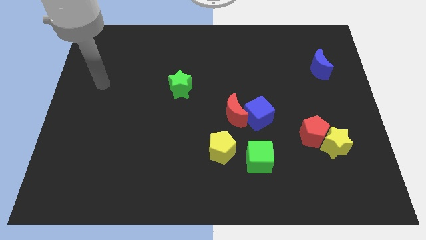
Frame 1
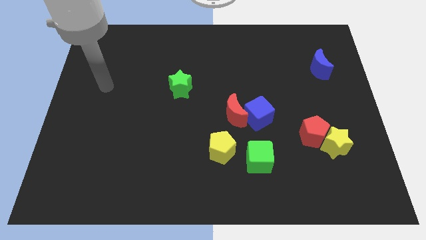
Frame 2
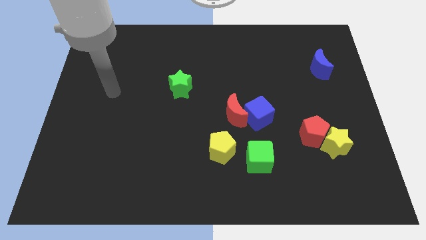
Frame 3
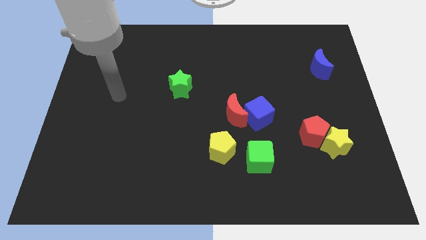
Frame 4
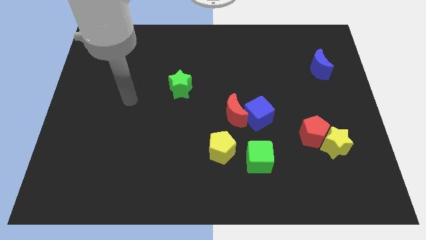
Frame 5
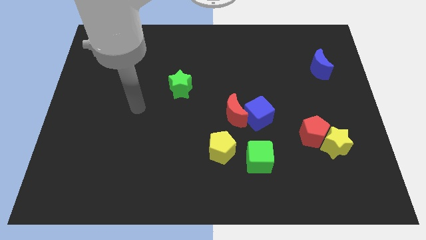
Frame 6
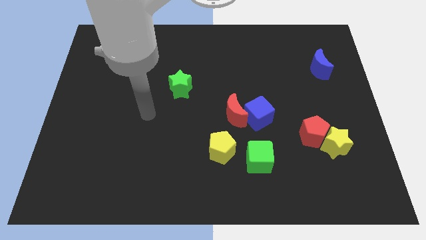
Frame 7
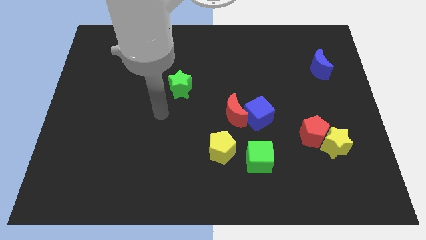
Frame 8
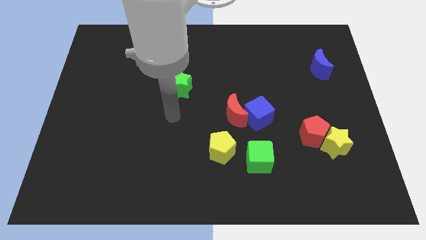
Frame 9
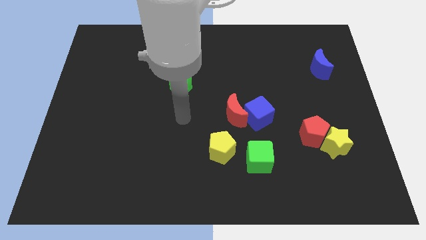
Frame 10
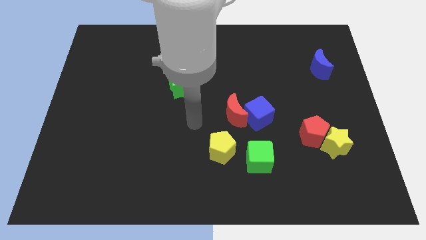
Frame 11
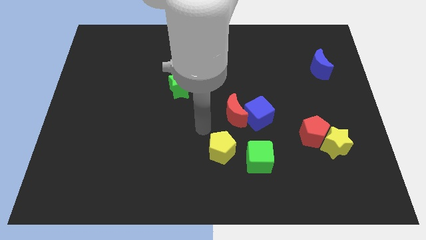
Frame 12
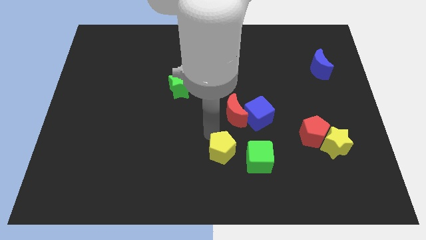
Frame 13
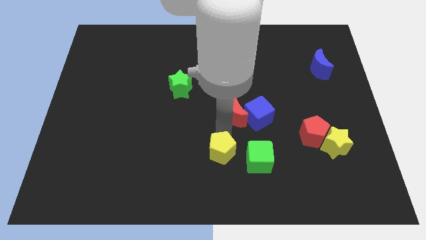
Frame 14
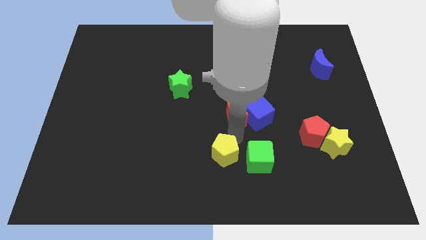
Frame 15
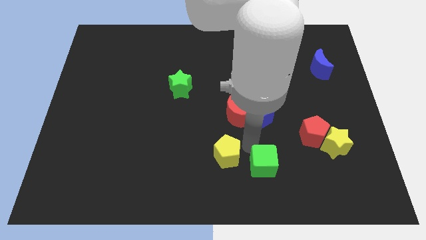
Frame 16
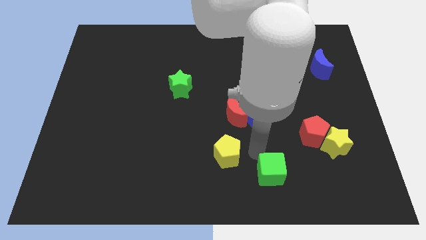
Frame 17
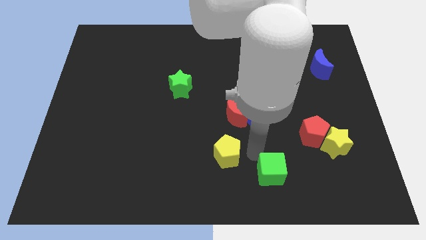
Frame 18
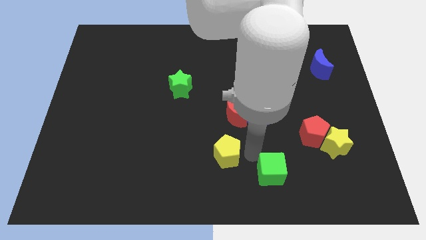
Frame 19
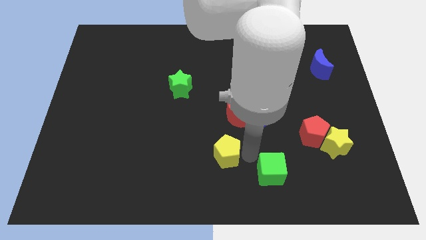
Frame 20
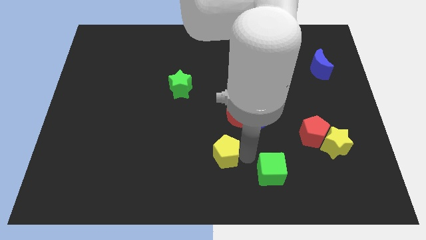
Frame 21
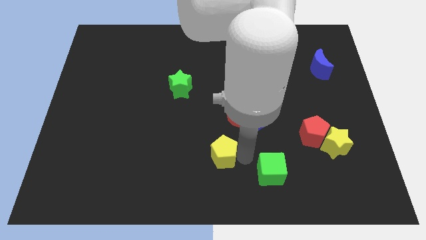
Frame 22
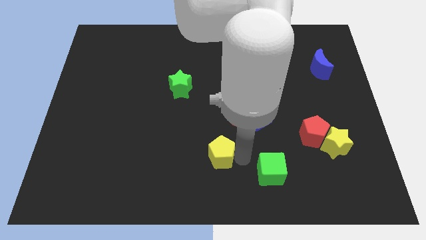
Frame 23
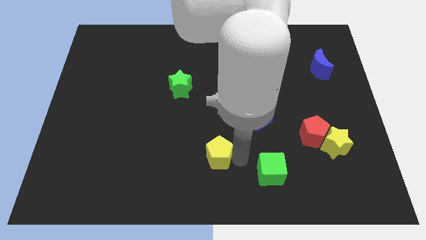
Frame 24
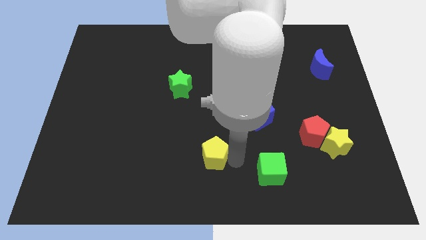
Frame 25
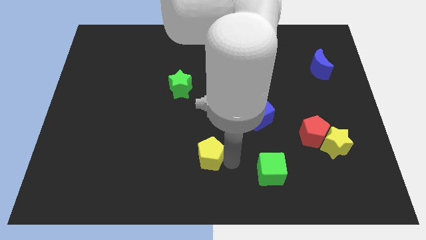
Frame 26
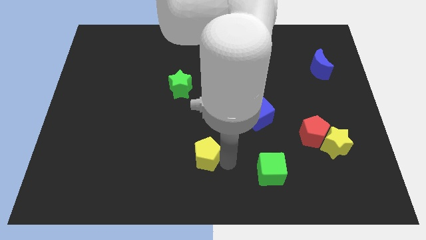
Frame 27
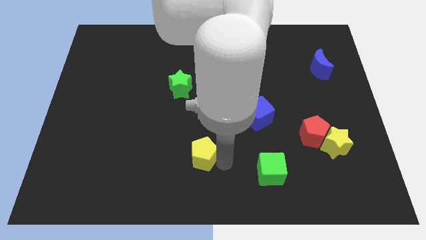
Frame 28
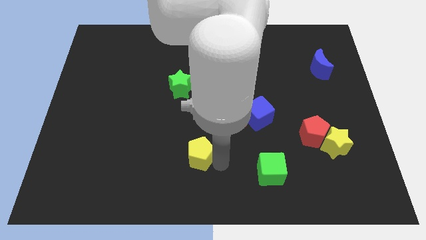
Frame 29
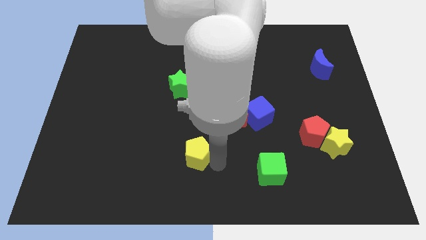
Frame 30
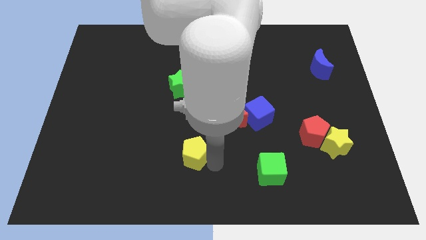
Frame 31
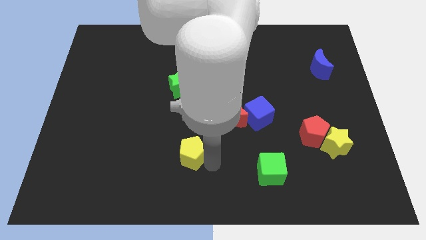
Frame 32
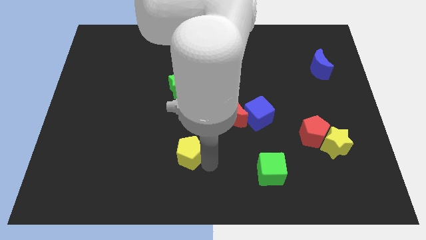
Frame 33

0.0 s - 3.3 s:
slightly push the yellow pentagon to the left

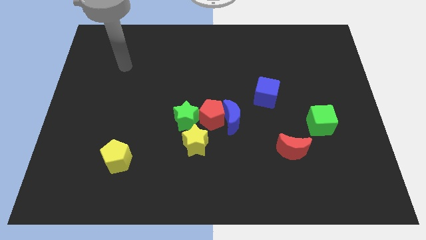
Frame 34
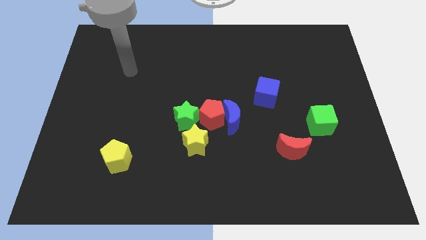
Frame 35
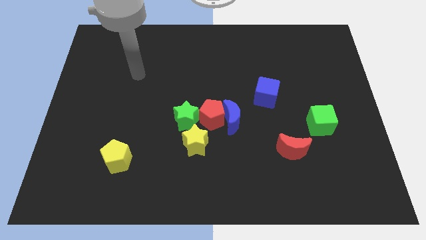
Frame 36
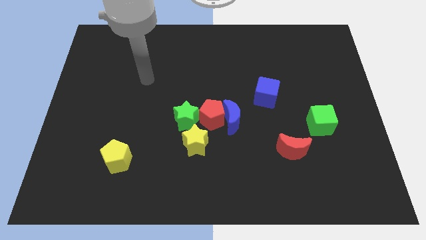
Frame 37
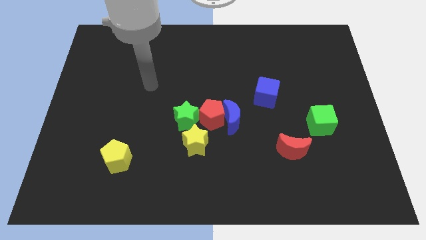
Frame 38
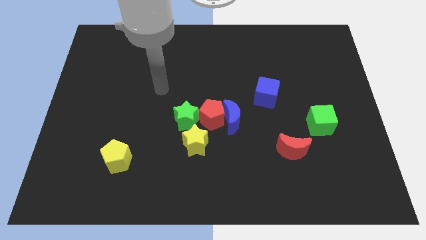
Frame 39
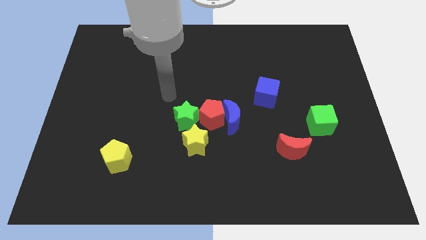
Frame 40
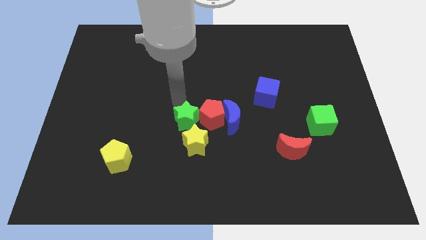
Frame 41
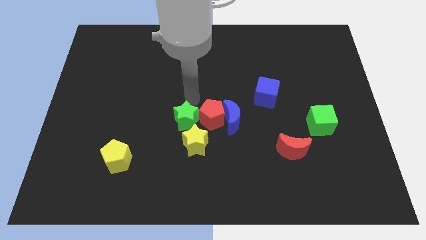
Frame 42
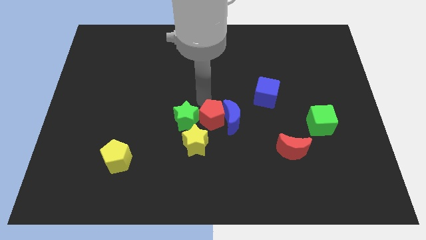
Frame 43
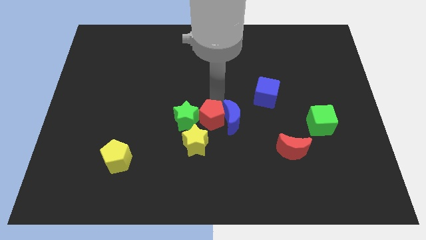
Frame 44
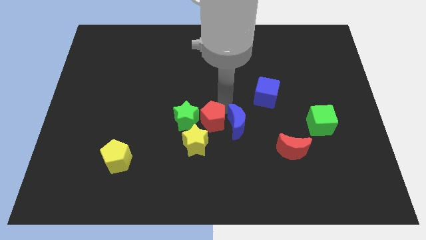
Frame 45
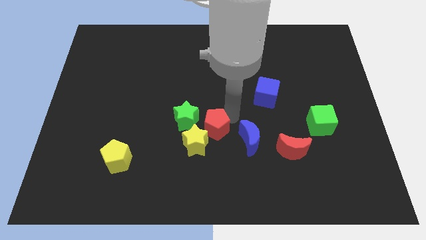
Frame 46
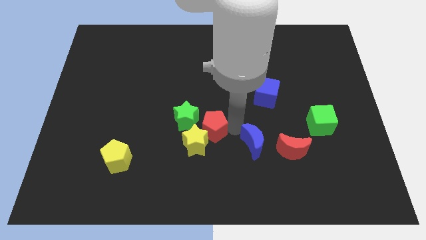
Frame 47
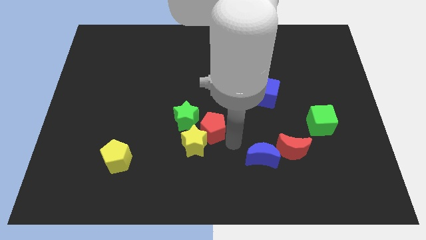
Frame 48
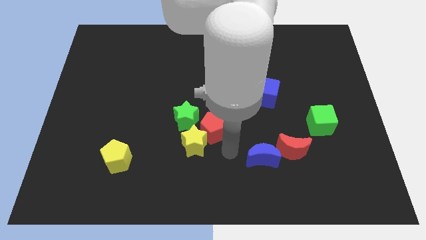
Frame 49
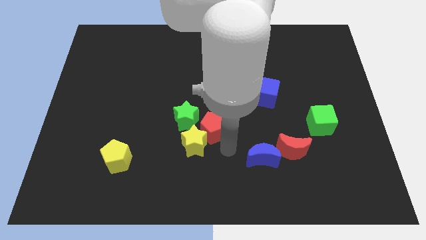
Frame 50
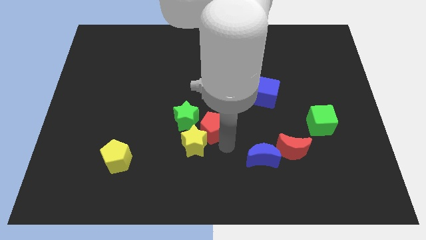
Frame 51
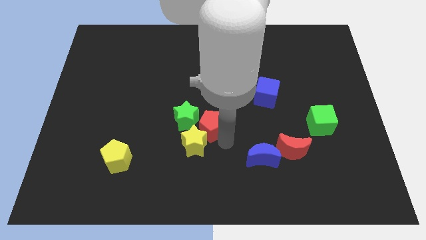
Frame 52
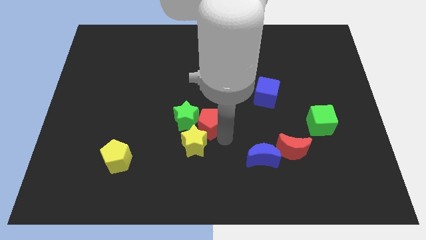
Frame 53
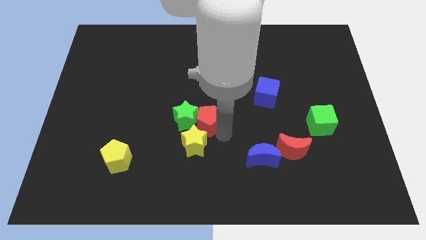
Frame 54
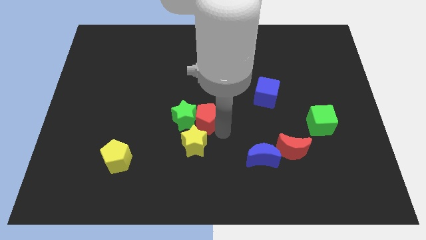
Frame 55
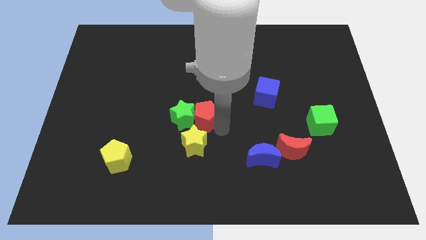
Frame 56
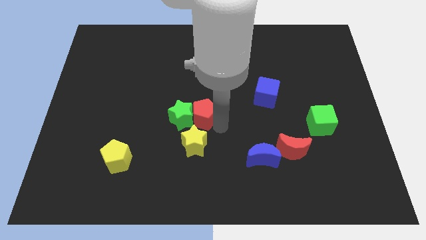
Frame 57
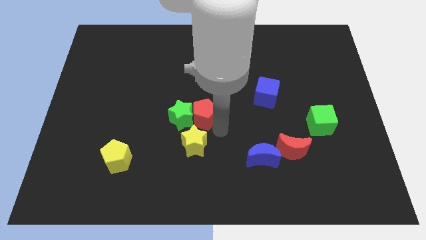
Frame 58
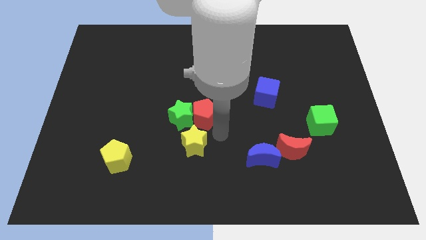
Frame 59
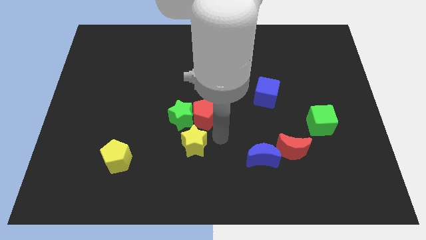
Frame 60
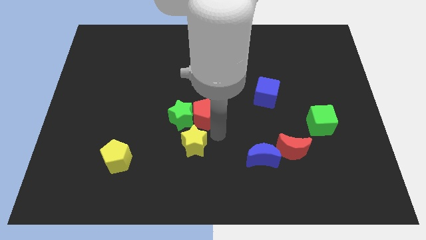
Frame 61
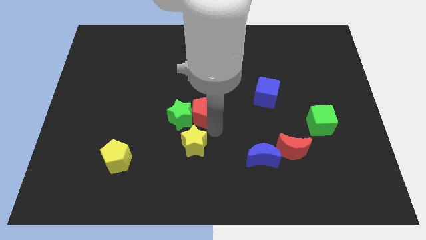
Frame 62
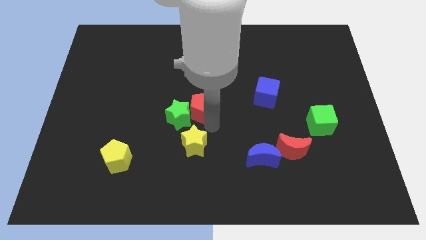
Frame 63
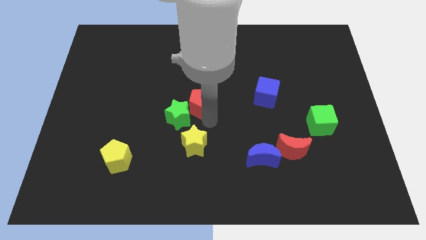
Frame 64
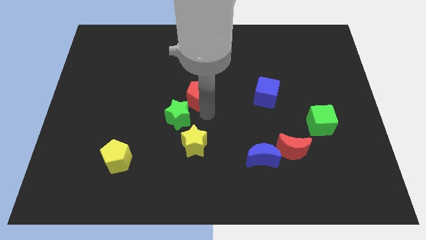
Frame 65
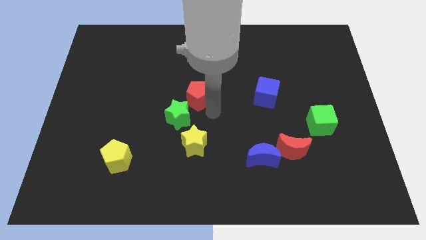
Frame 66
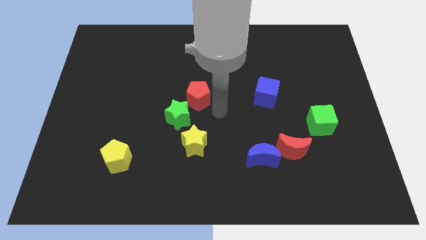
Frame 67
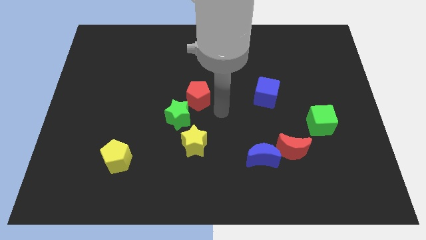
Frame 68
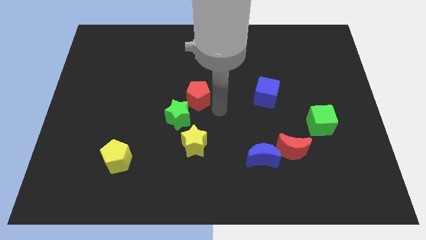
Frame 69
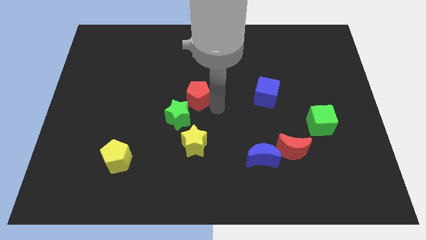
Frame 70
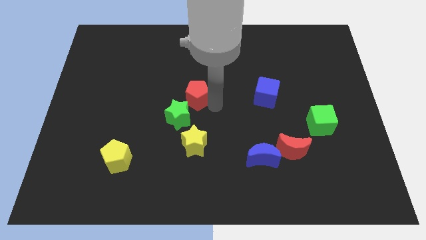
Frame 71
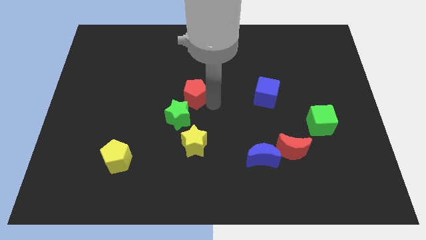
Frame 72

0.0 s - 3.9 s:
slide the red pentagon a bit diagonally up and left

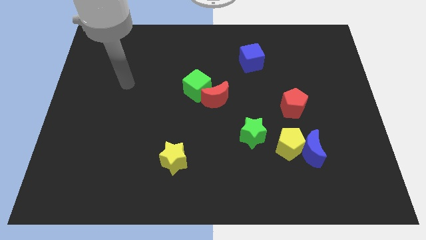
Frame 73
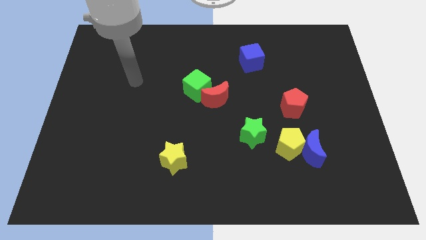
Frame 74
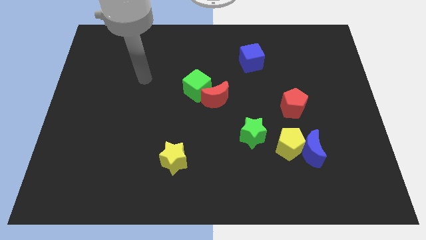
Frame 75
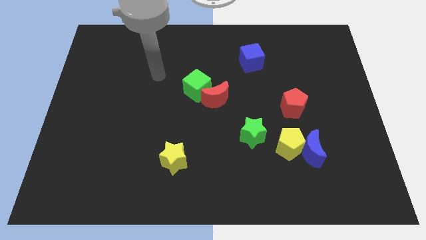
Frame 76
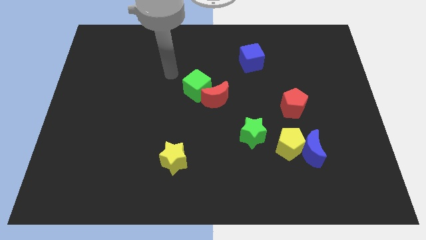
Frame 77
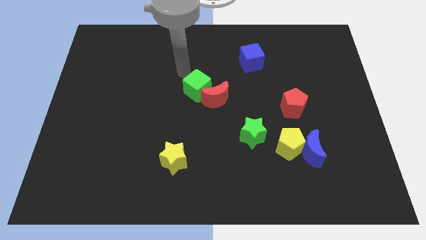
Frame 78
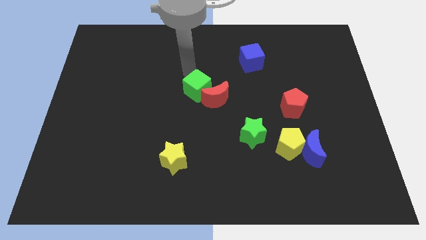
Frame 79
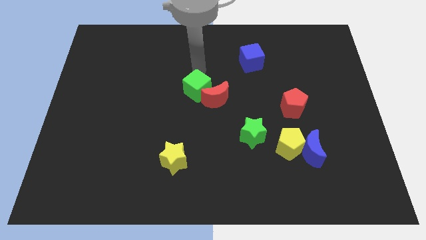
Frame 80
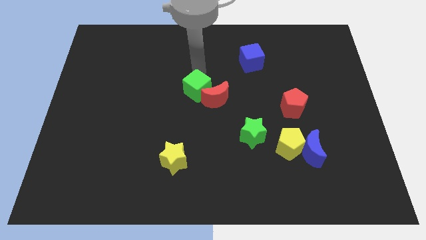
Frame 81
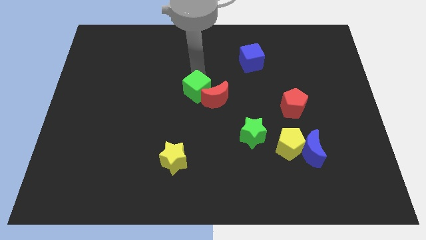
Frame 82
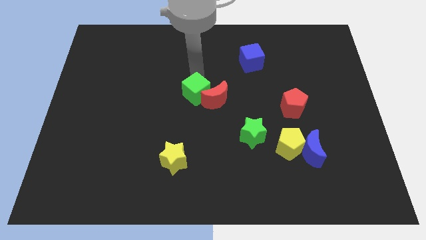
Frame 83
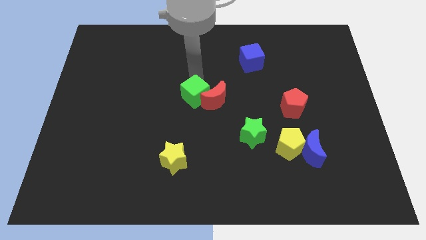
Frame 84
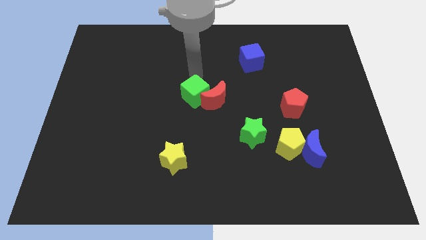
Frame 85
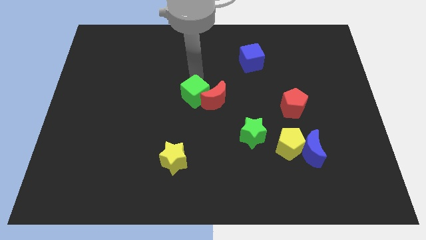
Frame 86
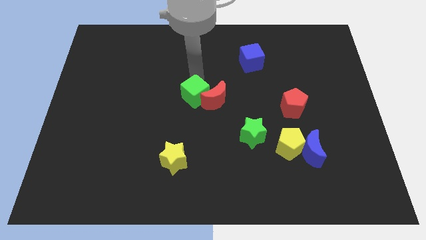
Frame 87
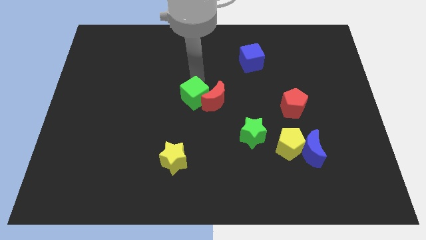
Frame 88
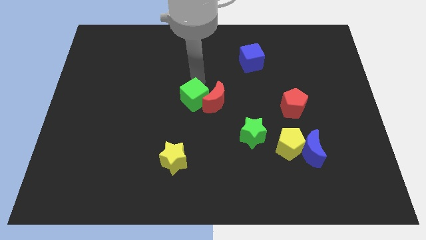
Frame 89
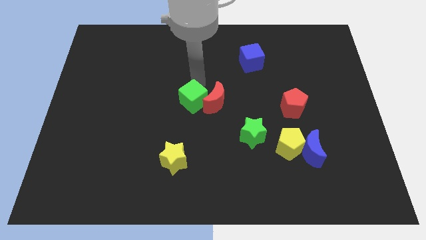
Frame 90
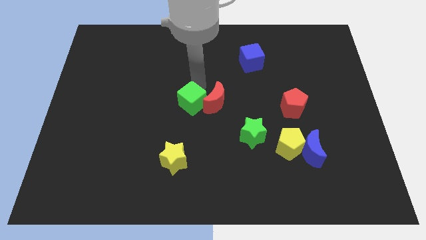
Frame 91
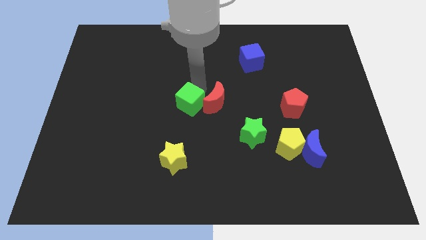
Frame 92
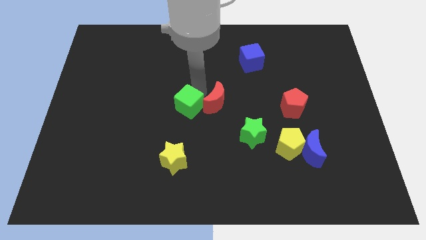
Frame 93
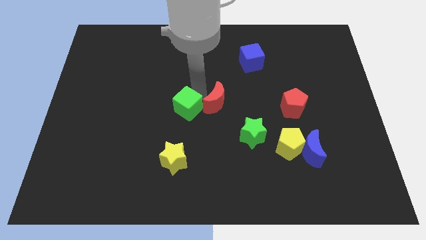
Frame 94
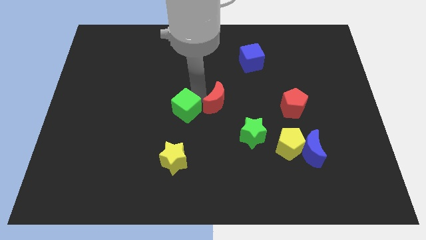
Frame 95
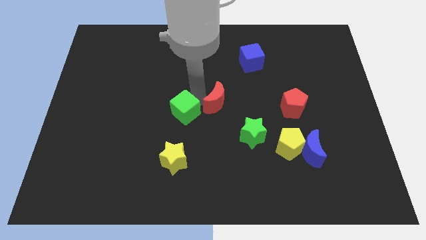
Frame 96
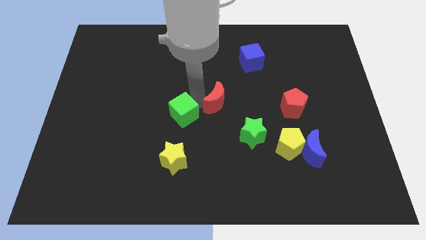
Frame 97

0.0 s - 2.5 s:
move the green cube downwards slightly
